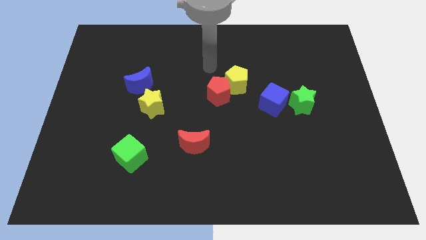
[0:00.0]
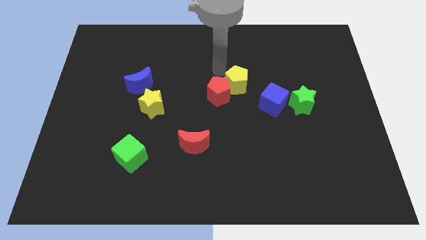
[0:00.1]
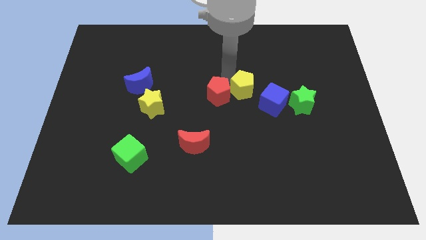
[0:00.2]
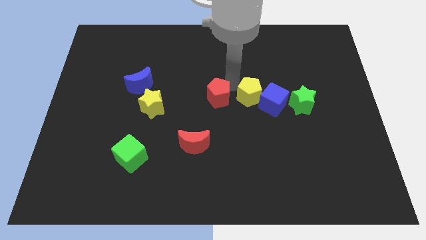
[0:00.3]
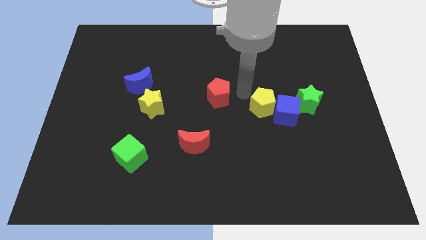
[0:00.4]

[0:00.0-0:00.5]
pull the red pentagon apart from the yellow pentagon

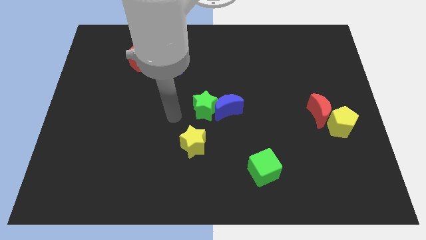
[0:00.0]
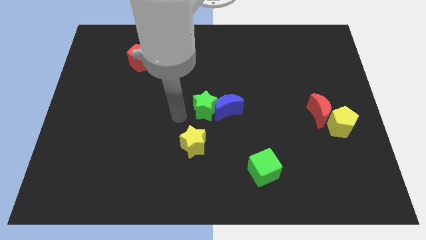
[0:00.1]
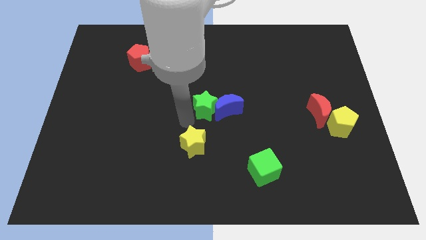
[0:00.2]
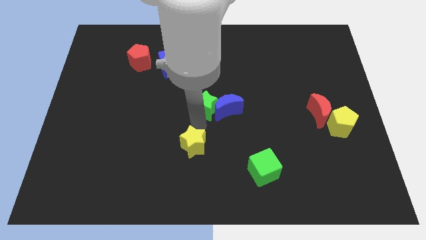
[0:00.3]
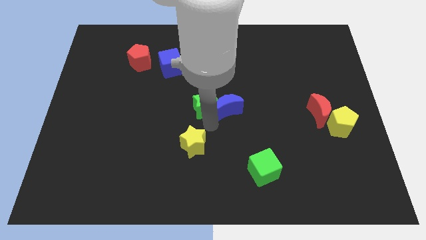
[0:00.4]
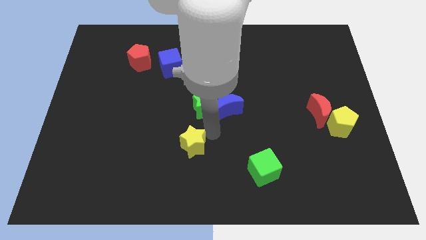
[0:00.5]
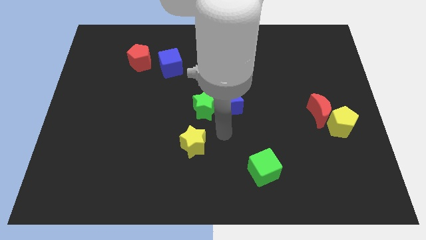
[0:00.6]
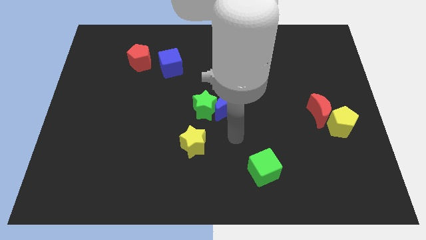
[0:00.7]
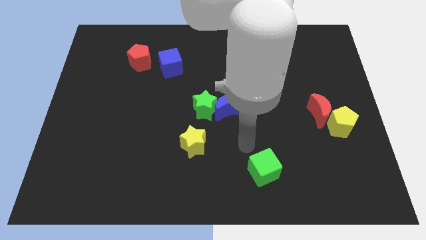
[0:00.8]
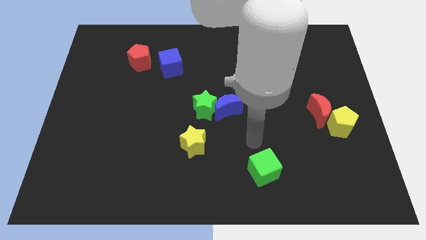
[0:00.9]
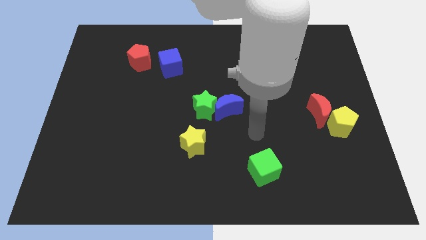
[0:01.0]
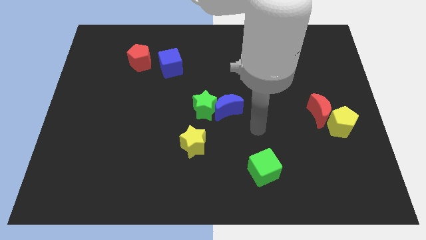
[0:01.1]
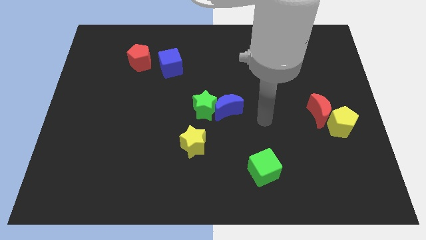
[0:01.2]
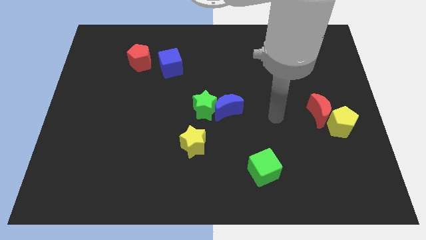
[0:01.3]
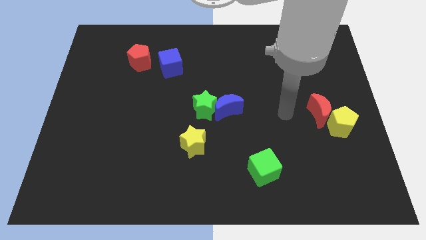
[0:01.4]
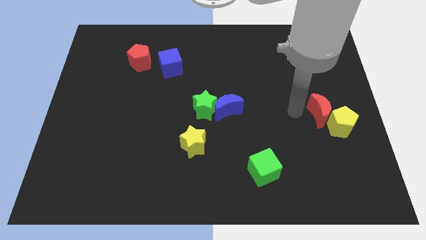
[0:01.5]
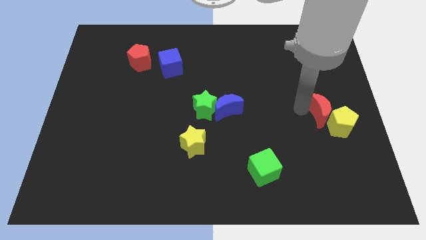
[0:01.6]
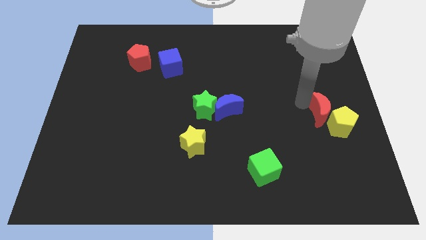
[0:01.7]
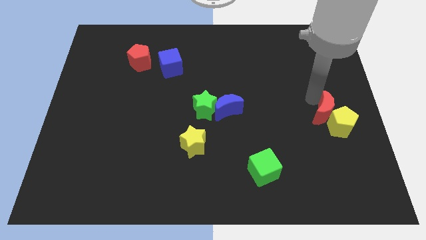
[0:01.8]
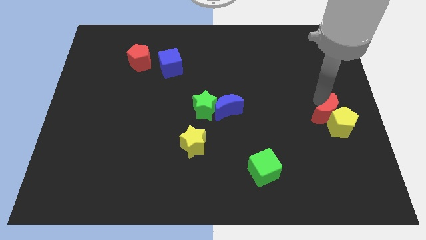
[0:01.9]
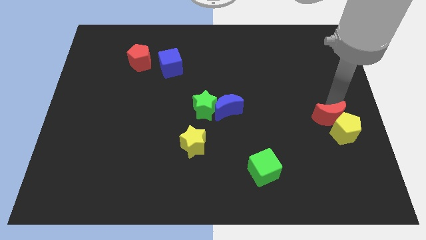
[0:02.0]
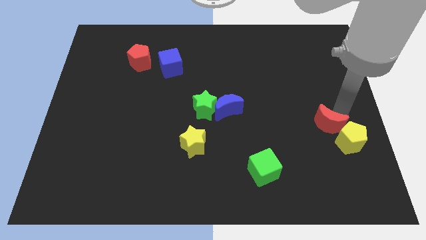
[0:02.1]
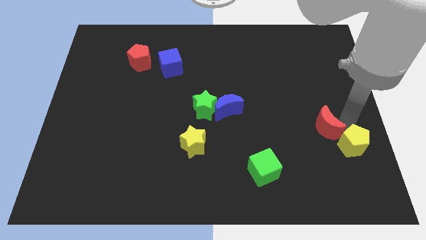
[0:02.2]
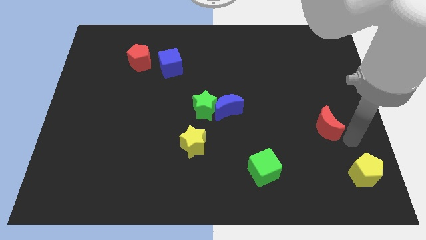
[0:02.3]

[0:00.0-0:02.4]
pull the red moon apart from the yellow pentagon

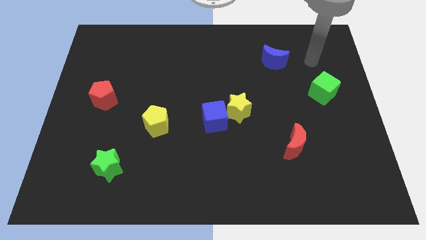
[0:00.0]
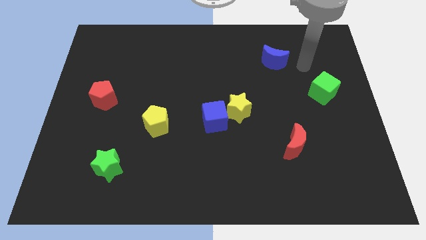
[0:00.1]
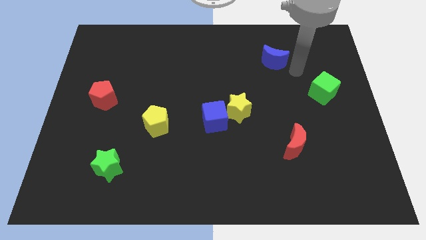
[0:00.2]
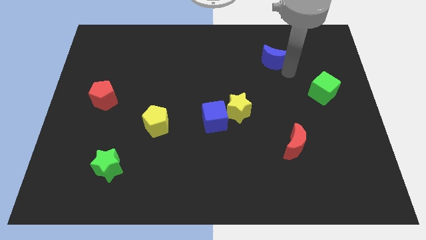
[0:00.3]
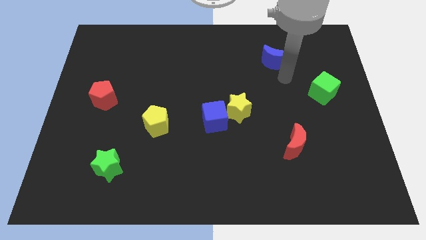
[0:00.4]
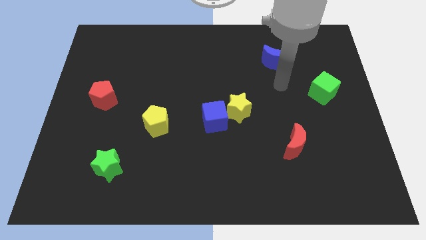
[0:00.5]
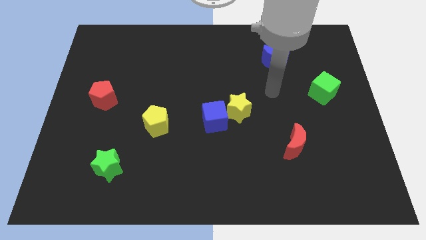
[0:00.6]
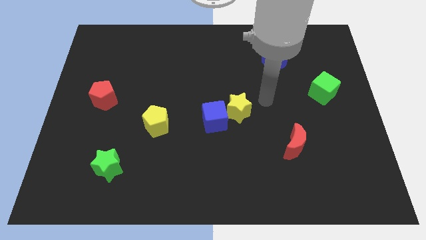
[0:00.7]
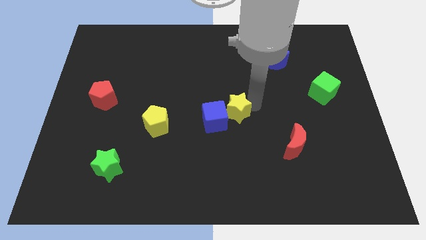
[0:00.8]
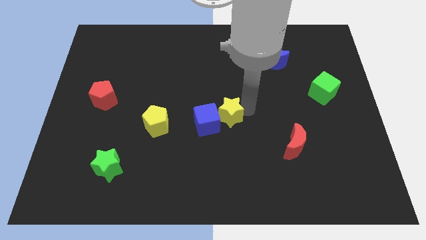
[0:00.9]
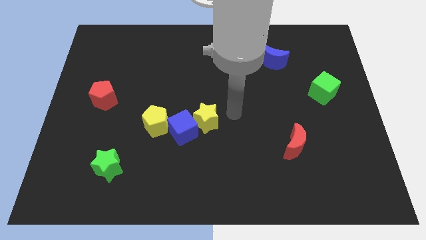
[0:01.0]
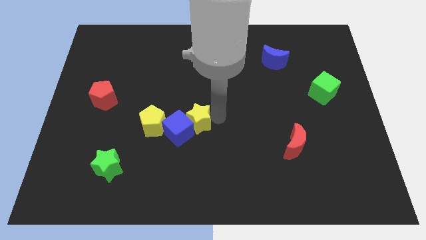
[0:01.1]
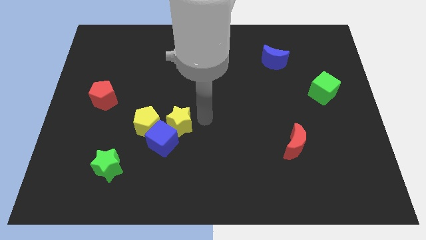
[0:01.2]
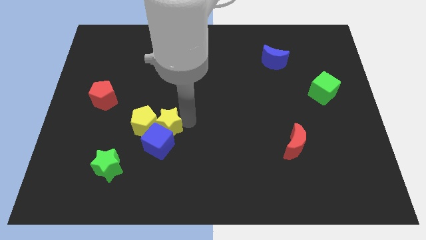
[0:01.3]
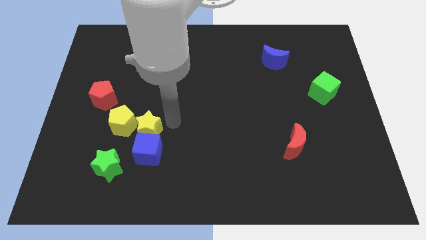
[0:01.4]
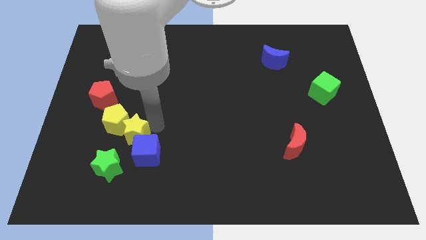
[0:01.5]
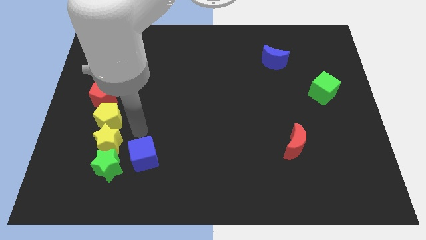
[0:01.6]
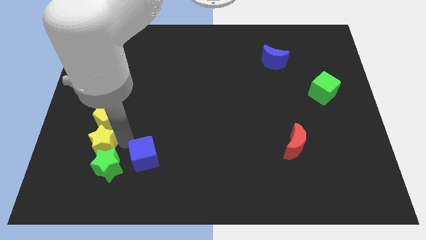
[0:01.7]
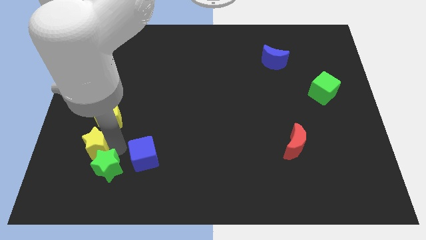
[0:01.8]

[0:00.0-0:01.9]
move the blue cube away from the yellow star

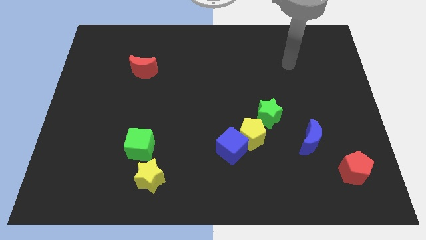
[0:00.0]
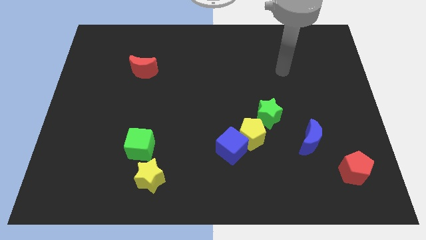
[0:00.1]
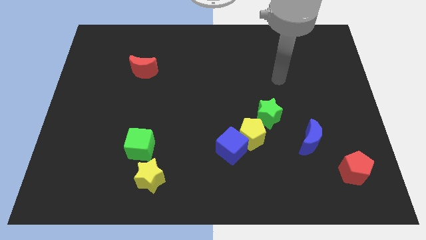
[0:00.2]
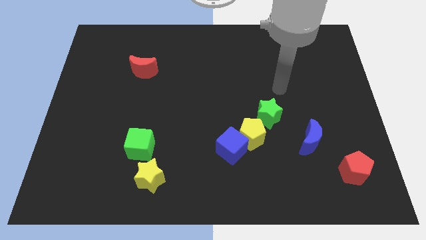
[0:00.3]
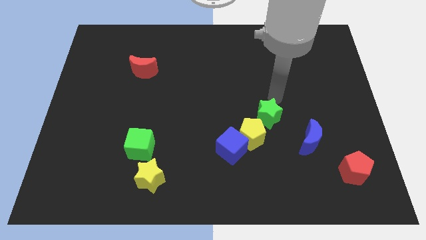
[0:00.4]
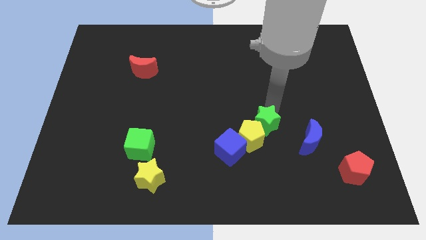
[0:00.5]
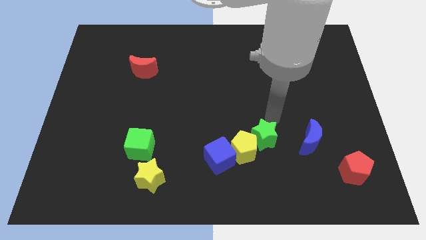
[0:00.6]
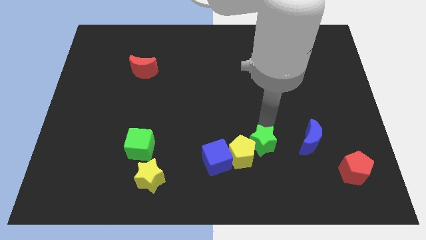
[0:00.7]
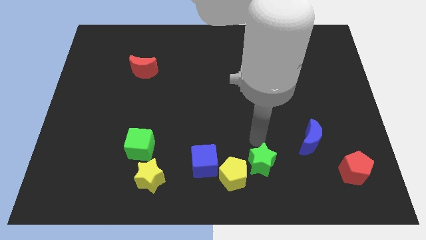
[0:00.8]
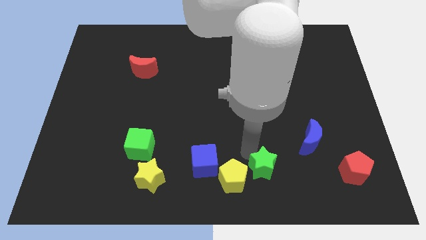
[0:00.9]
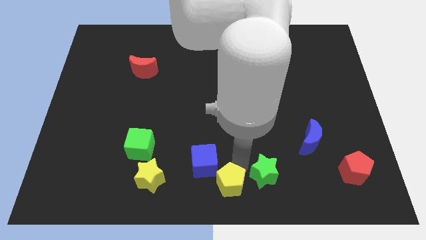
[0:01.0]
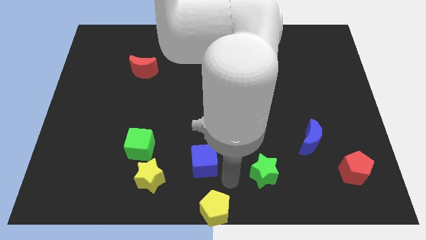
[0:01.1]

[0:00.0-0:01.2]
pull the blue cube apart from the yellow pentagon

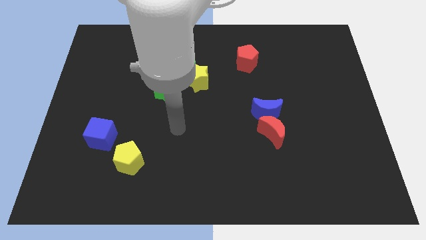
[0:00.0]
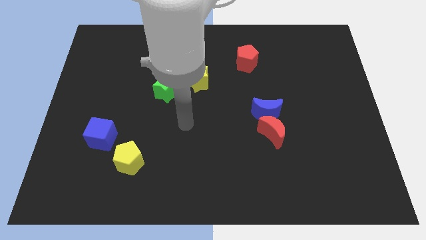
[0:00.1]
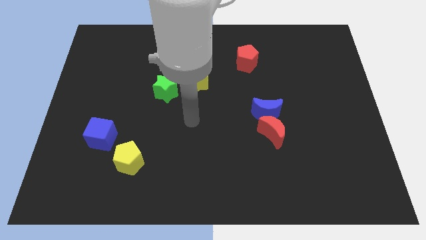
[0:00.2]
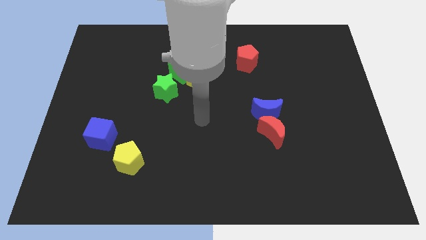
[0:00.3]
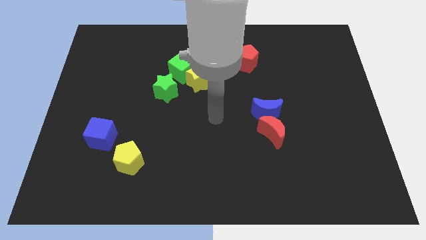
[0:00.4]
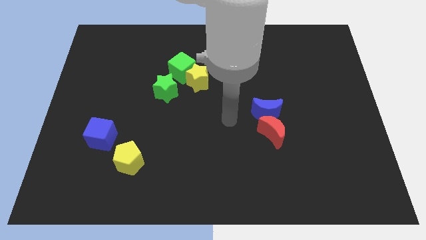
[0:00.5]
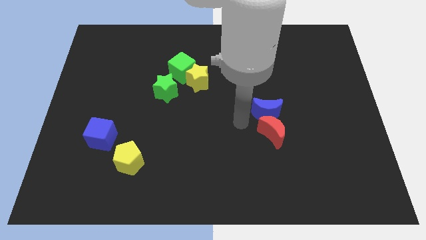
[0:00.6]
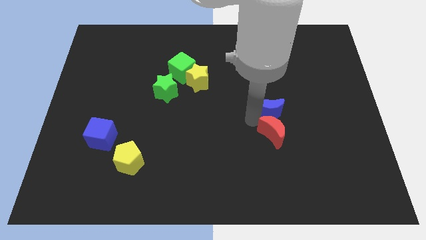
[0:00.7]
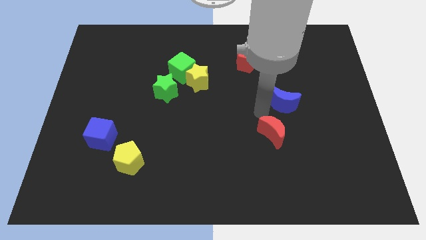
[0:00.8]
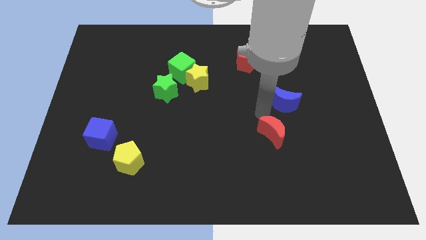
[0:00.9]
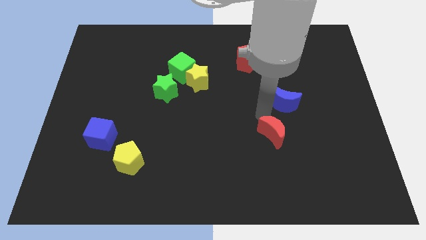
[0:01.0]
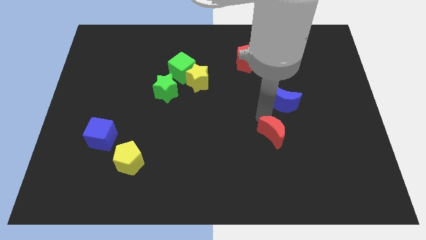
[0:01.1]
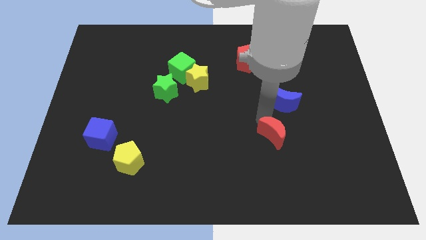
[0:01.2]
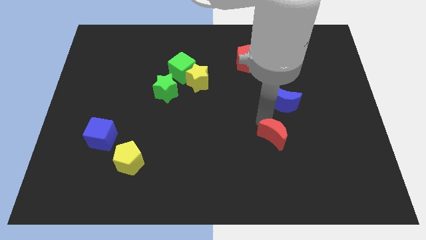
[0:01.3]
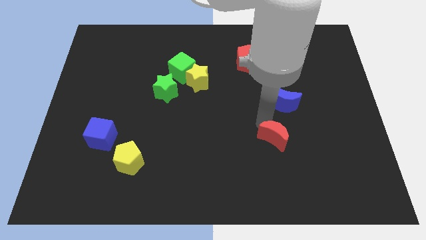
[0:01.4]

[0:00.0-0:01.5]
move the red moon away from the blue moon

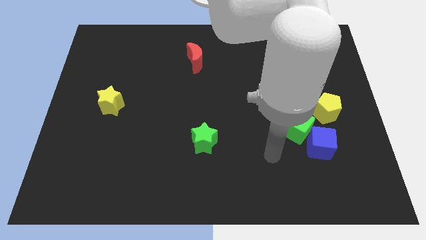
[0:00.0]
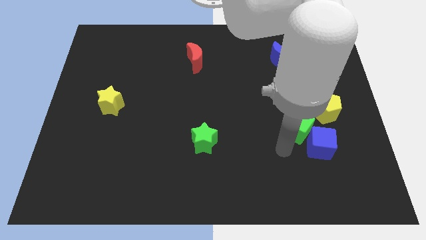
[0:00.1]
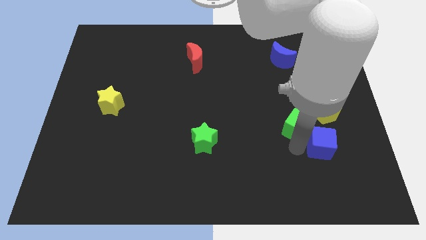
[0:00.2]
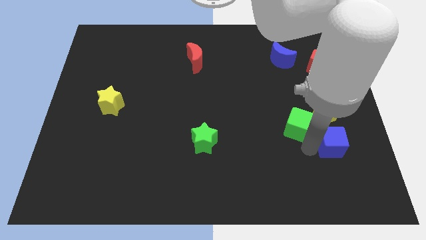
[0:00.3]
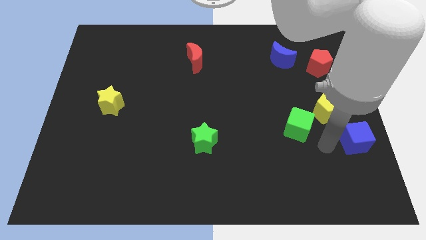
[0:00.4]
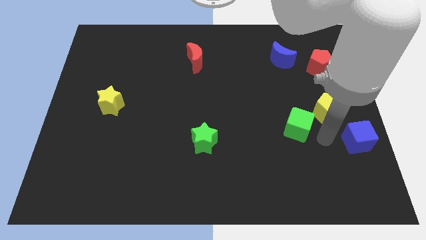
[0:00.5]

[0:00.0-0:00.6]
move the green cube away from the blue cube and yellow pentagon

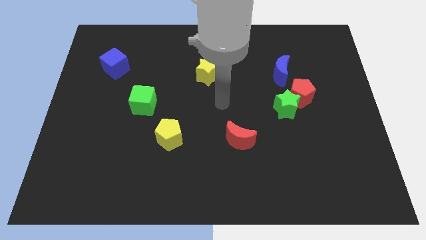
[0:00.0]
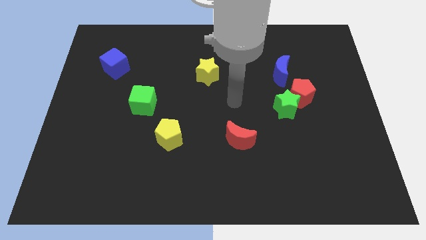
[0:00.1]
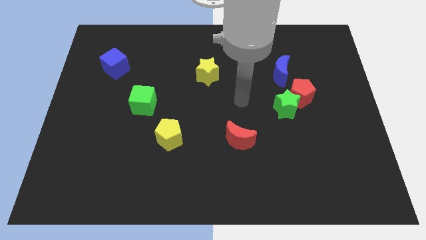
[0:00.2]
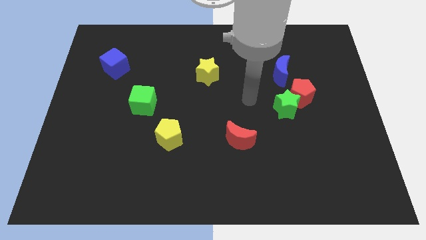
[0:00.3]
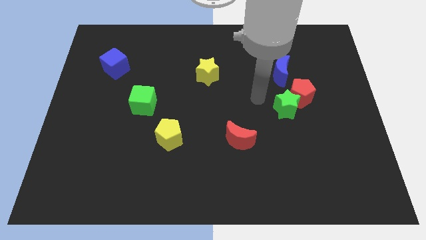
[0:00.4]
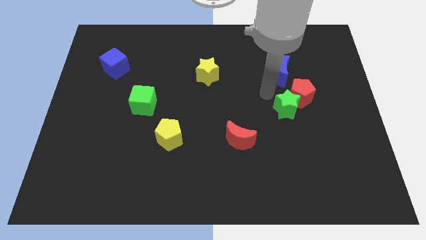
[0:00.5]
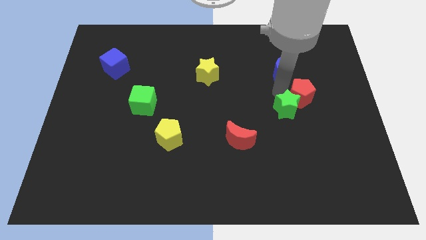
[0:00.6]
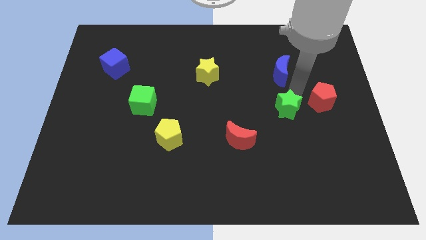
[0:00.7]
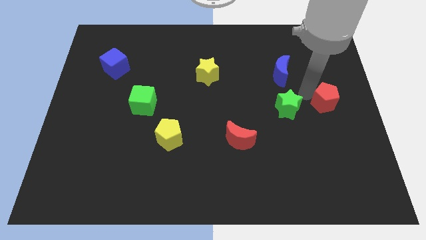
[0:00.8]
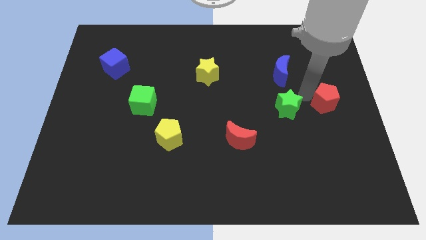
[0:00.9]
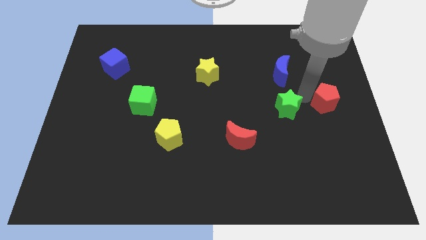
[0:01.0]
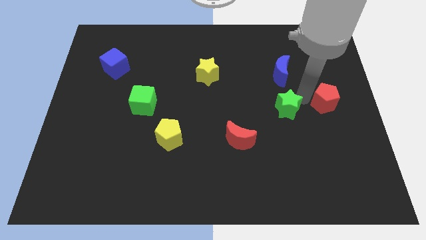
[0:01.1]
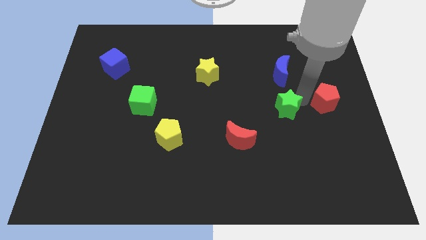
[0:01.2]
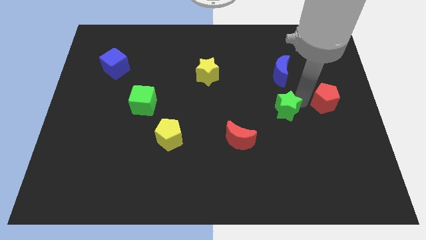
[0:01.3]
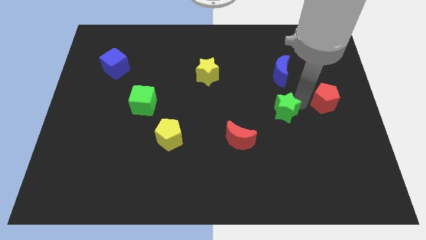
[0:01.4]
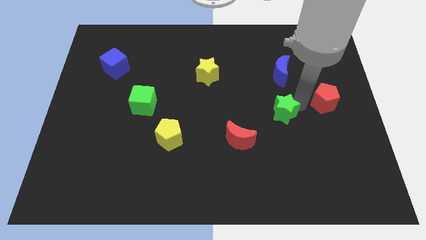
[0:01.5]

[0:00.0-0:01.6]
separate the green star from the red pentagon
